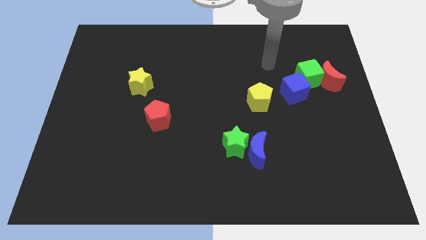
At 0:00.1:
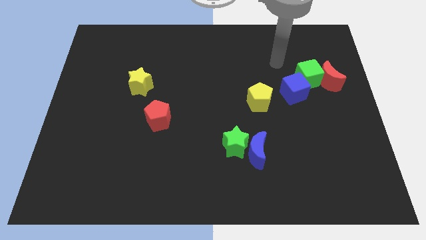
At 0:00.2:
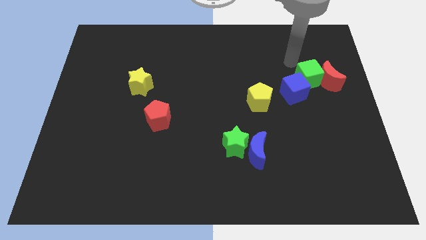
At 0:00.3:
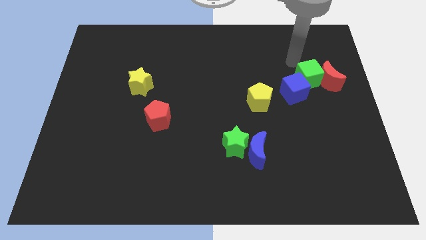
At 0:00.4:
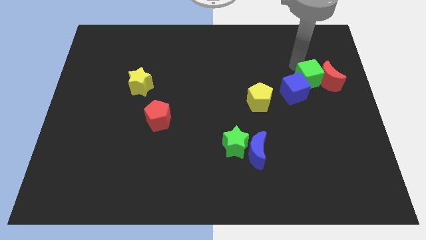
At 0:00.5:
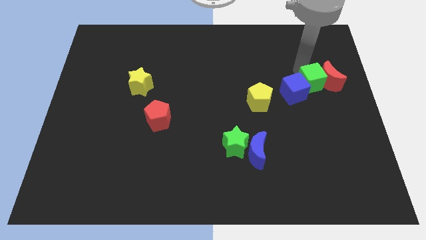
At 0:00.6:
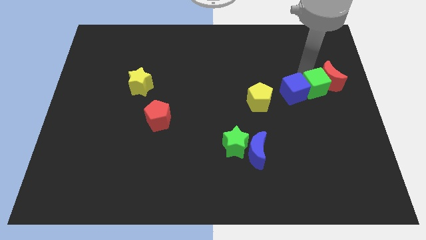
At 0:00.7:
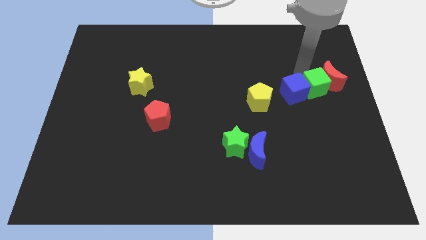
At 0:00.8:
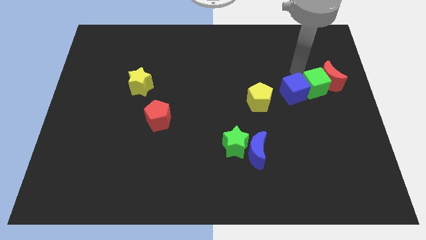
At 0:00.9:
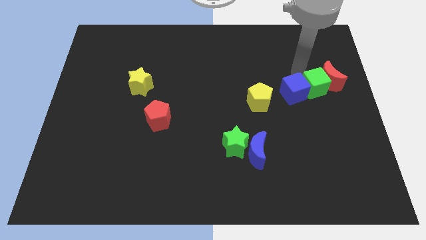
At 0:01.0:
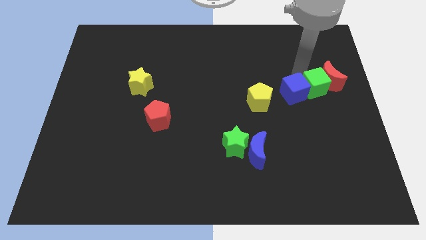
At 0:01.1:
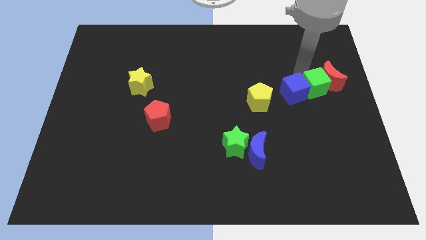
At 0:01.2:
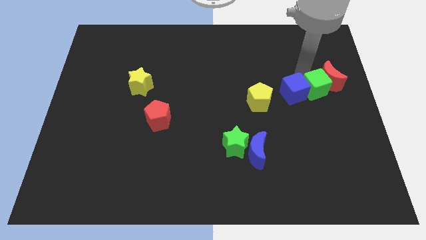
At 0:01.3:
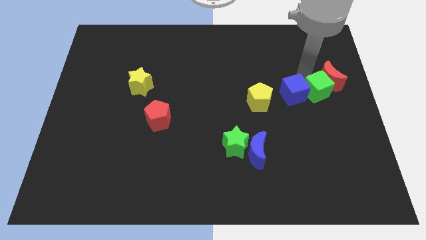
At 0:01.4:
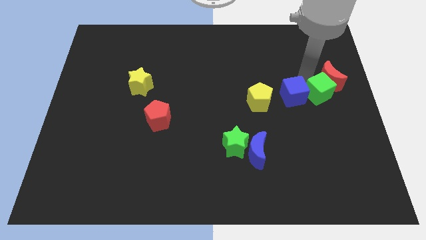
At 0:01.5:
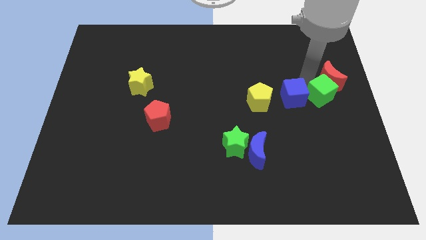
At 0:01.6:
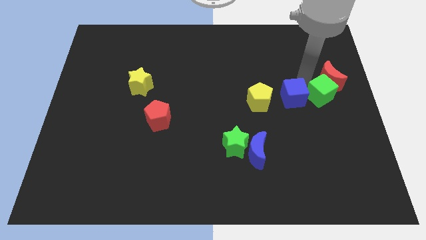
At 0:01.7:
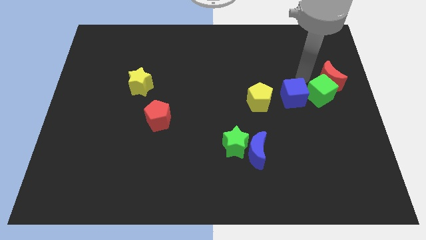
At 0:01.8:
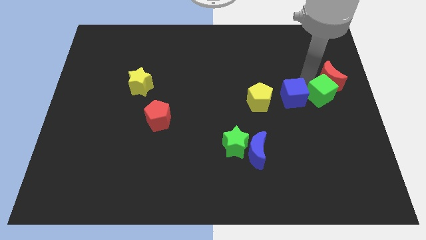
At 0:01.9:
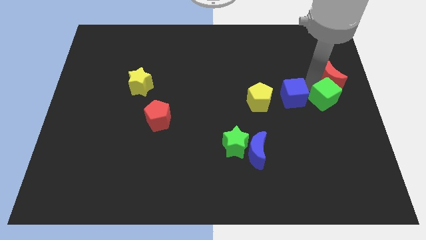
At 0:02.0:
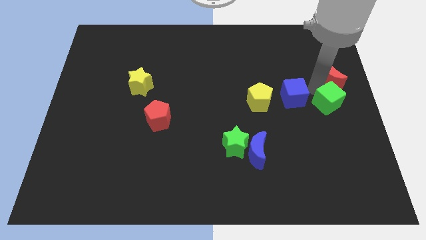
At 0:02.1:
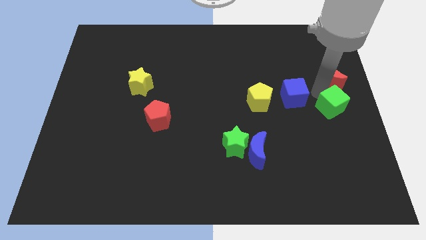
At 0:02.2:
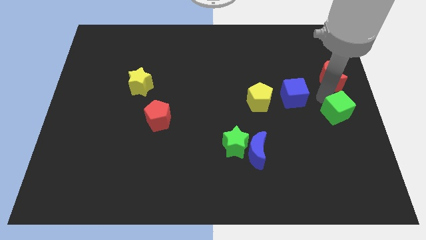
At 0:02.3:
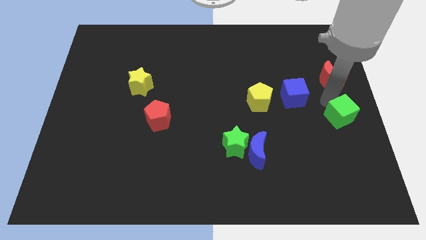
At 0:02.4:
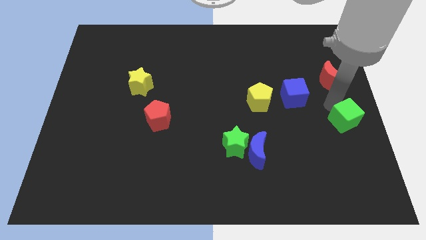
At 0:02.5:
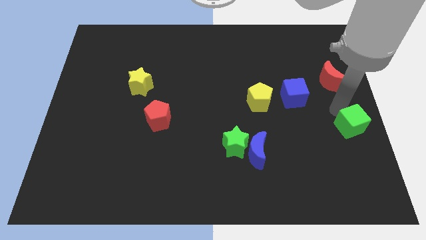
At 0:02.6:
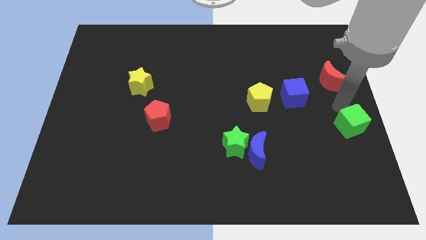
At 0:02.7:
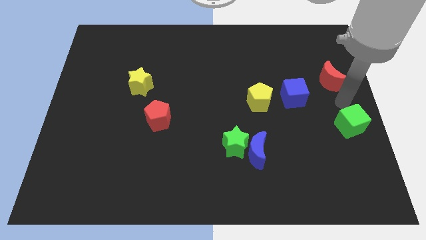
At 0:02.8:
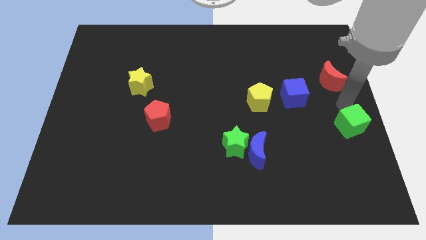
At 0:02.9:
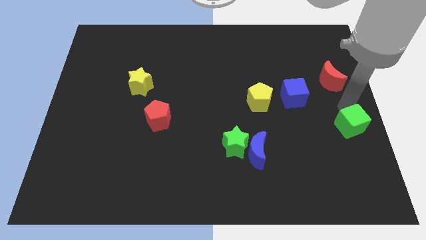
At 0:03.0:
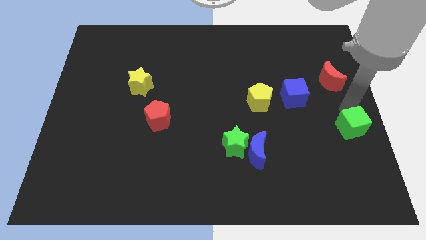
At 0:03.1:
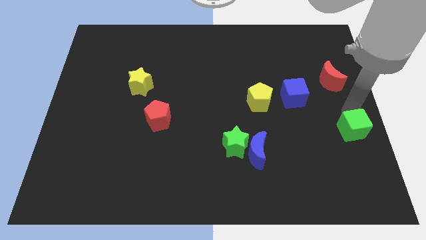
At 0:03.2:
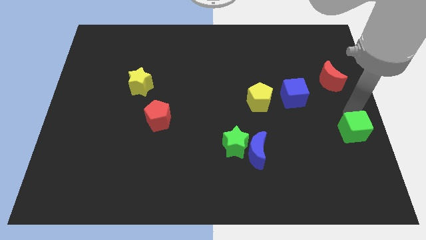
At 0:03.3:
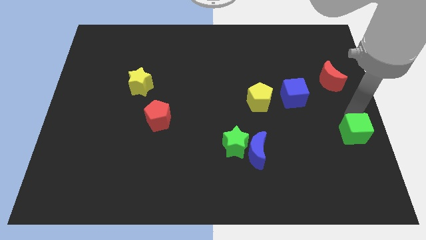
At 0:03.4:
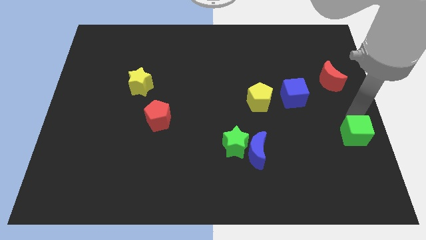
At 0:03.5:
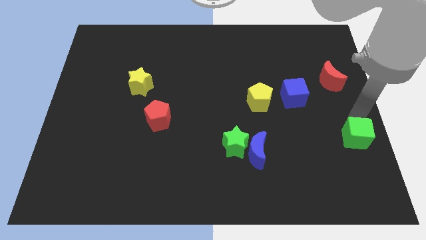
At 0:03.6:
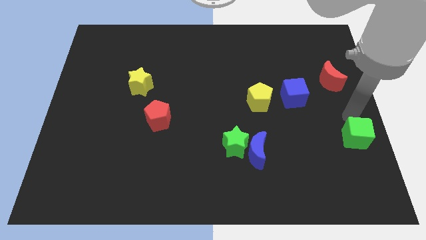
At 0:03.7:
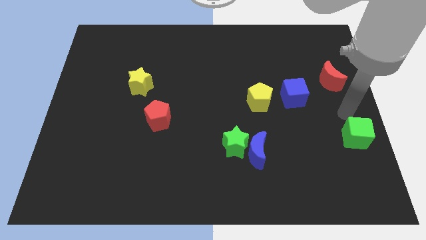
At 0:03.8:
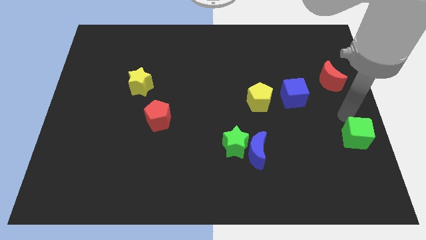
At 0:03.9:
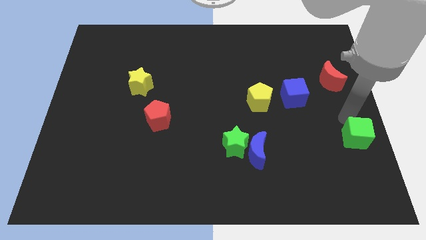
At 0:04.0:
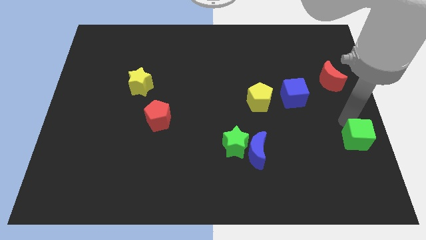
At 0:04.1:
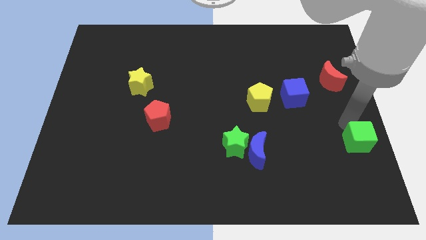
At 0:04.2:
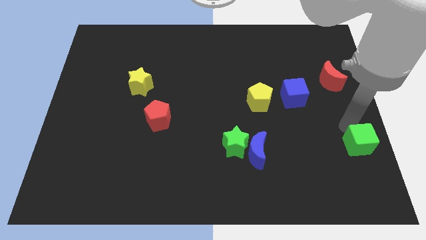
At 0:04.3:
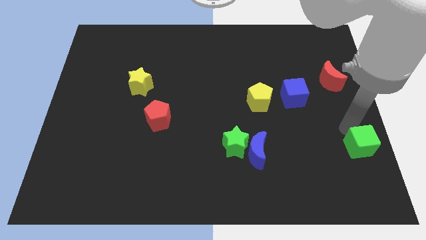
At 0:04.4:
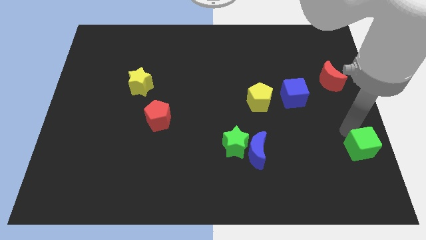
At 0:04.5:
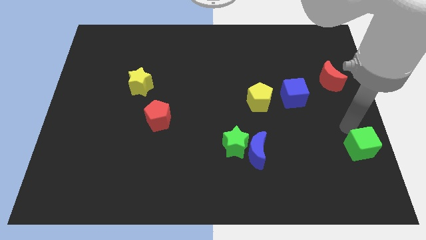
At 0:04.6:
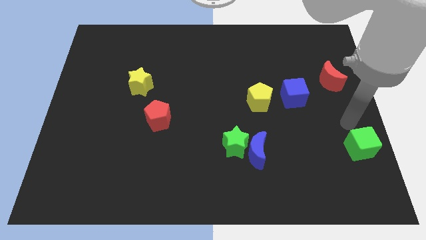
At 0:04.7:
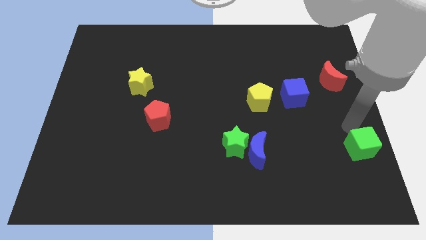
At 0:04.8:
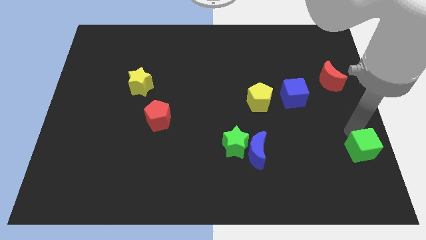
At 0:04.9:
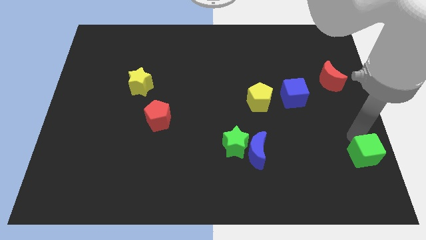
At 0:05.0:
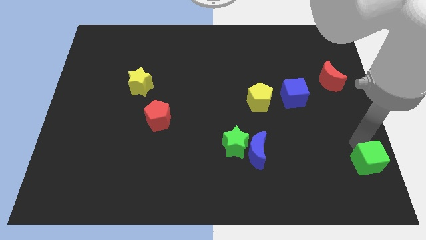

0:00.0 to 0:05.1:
push the green cube to the bottom right

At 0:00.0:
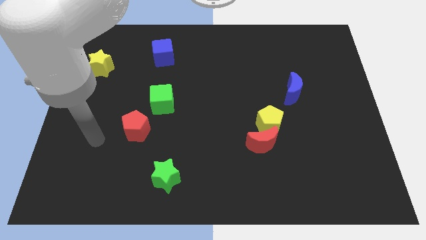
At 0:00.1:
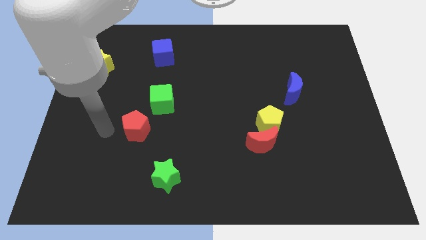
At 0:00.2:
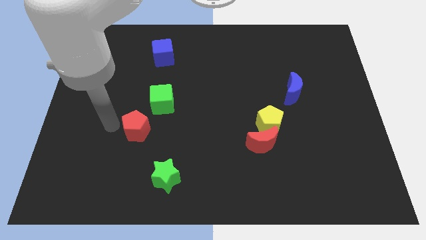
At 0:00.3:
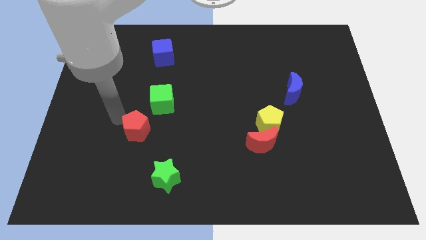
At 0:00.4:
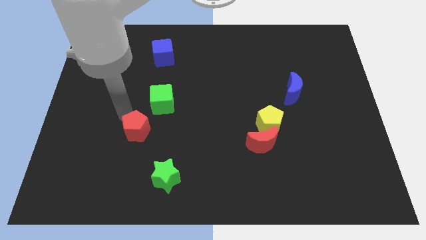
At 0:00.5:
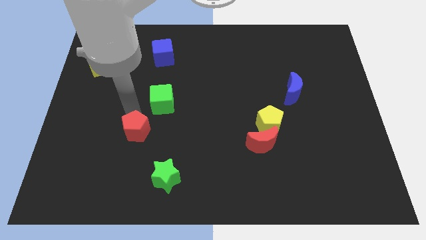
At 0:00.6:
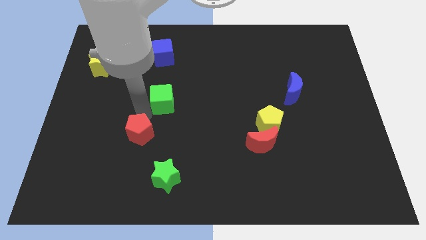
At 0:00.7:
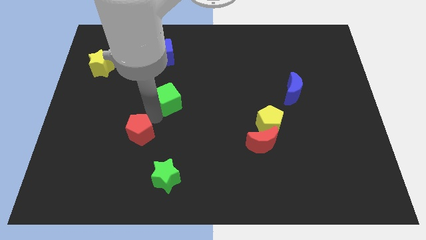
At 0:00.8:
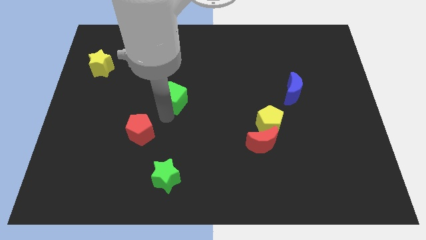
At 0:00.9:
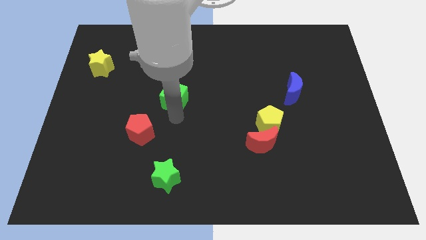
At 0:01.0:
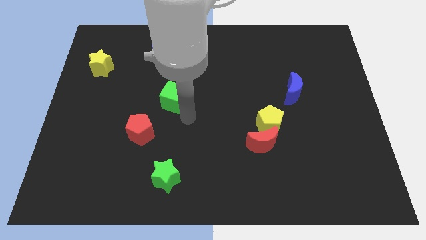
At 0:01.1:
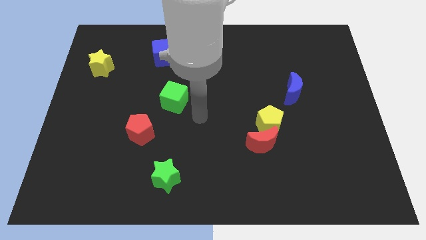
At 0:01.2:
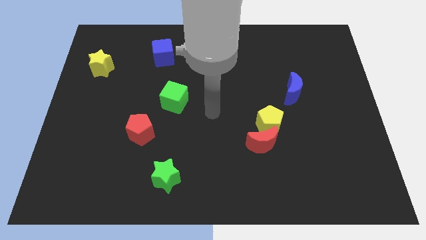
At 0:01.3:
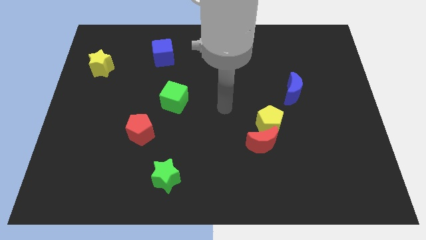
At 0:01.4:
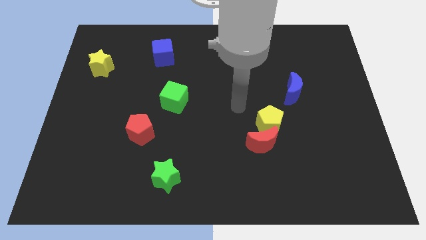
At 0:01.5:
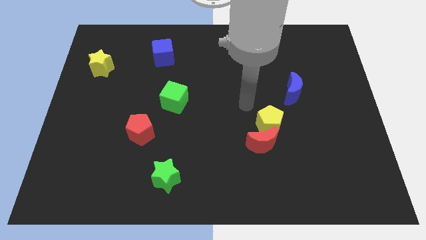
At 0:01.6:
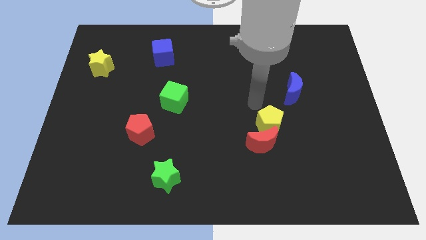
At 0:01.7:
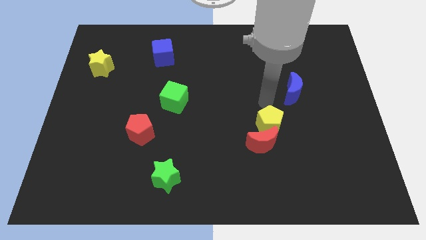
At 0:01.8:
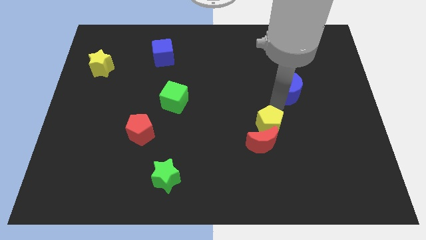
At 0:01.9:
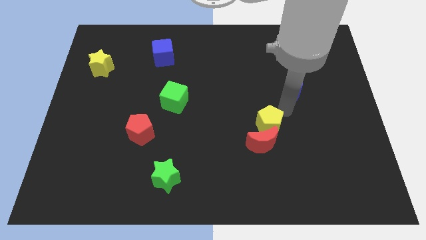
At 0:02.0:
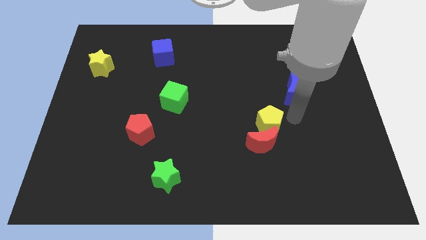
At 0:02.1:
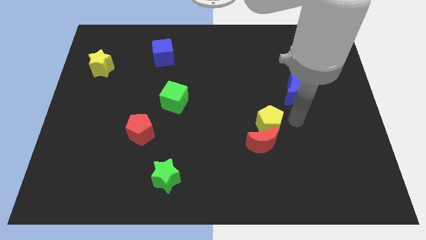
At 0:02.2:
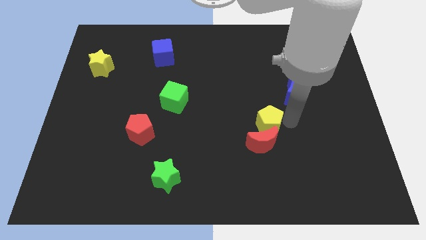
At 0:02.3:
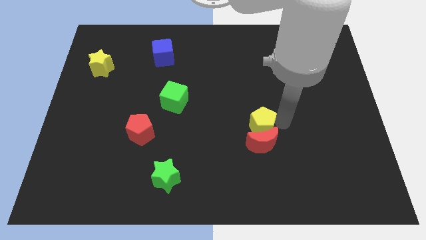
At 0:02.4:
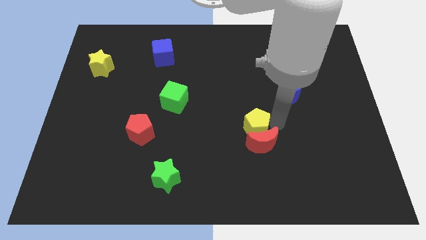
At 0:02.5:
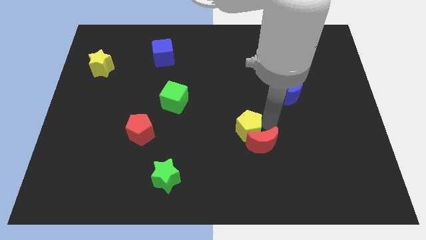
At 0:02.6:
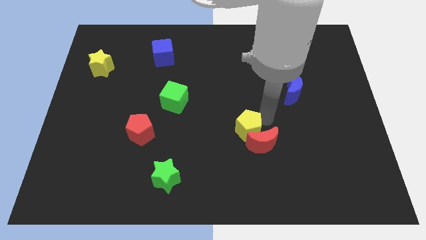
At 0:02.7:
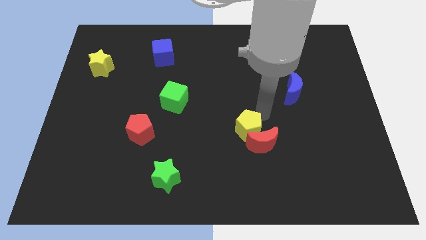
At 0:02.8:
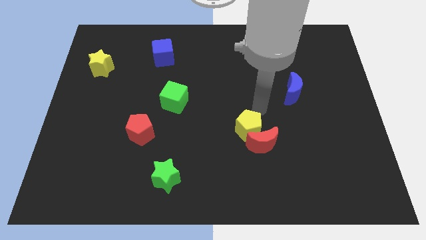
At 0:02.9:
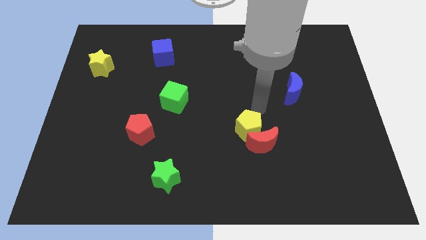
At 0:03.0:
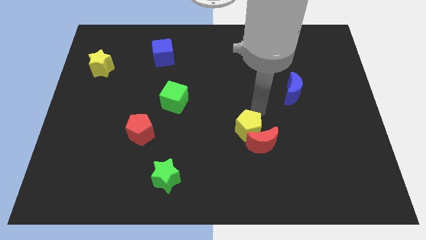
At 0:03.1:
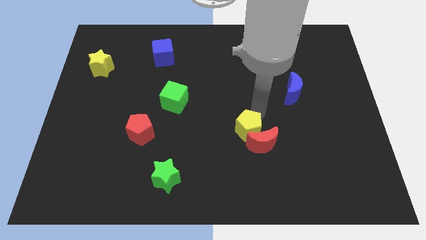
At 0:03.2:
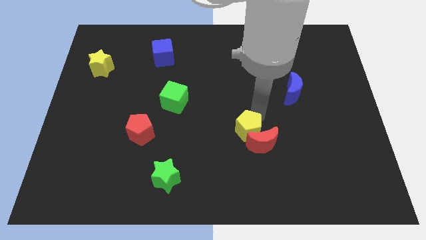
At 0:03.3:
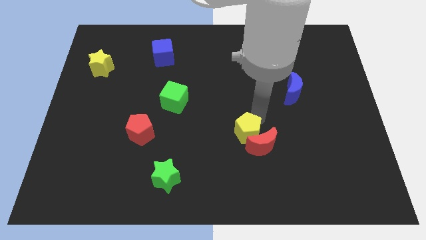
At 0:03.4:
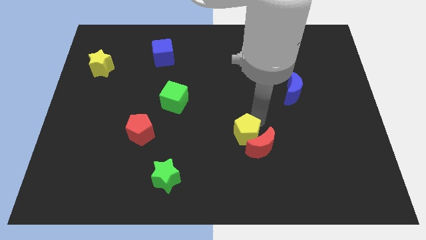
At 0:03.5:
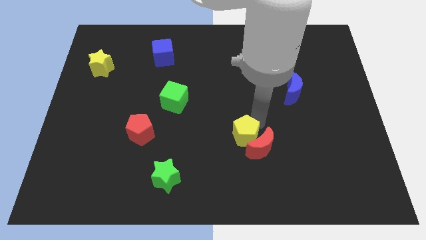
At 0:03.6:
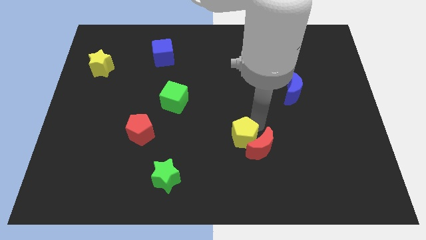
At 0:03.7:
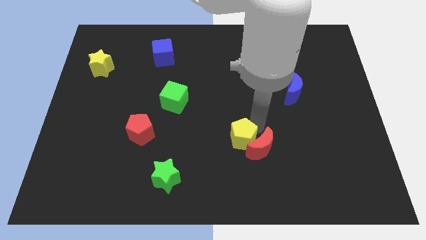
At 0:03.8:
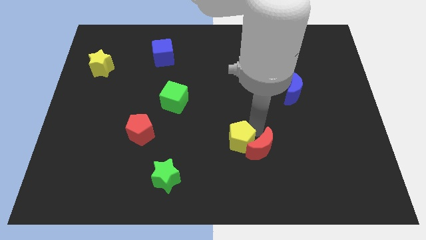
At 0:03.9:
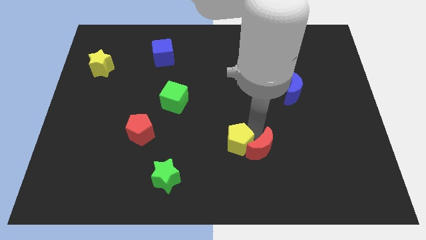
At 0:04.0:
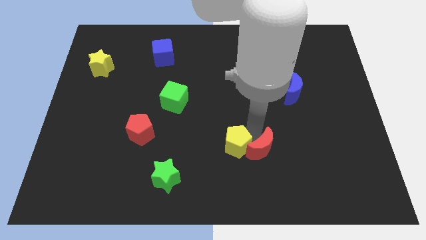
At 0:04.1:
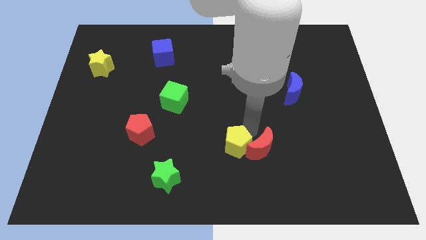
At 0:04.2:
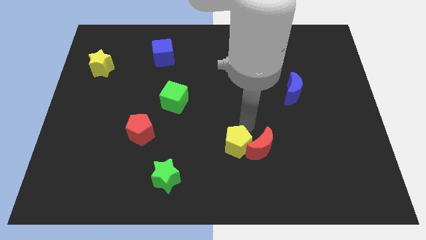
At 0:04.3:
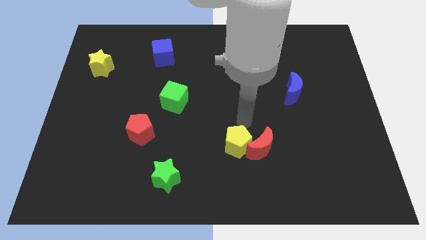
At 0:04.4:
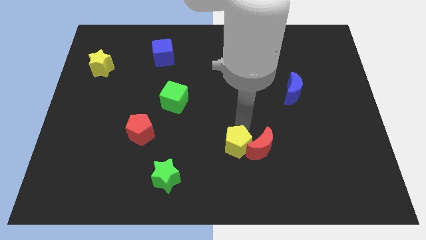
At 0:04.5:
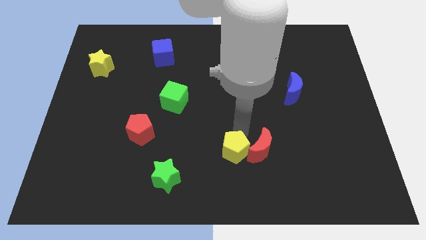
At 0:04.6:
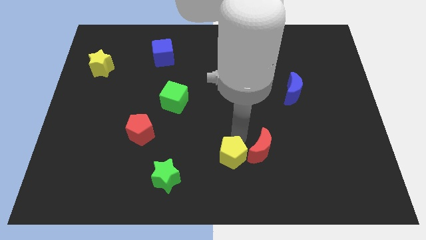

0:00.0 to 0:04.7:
move the yellow pentagon to the bottom
